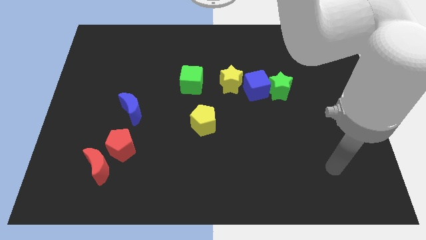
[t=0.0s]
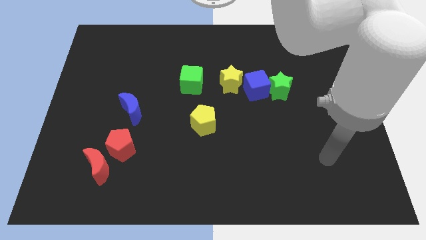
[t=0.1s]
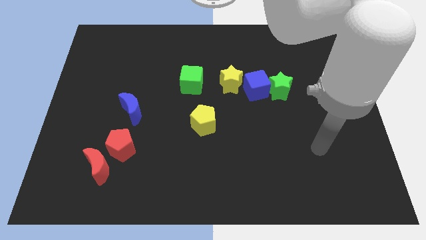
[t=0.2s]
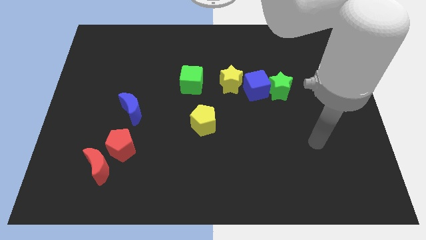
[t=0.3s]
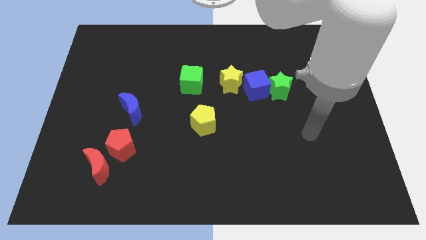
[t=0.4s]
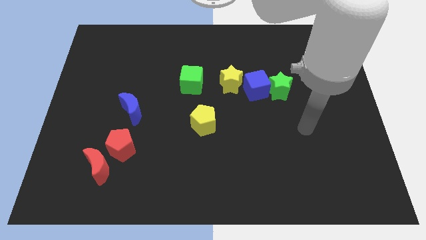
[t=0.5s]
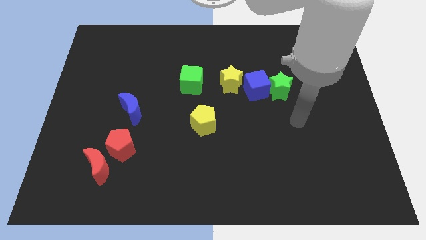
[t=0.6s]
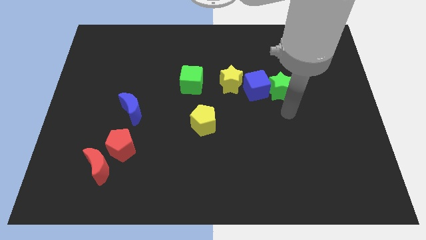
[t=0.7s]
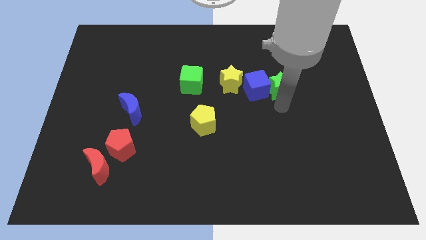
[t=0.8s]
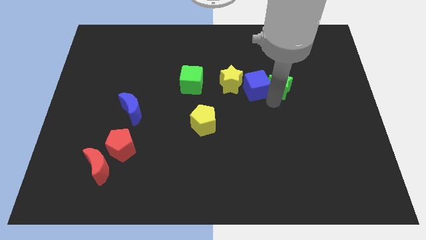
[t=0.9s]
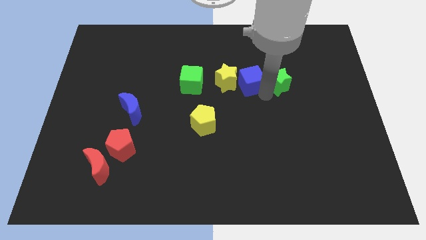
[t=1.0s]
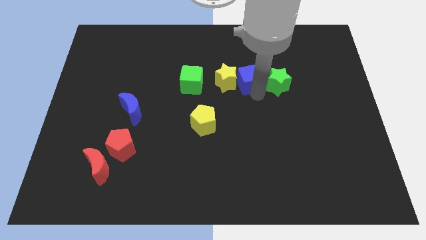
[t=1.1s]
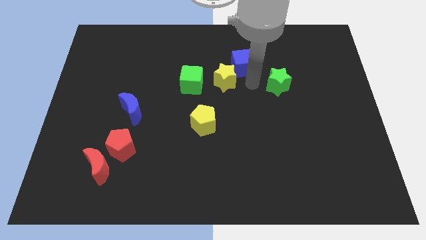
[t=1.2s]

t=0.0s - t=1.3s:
move the green star away from the blue cube

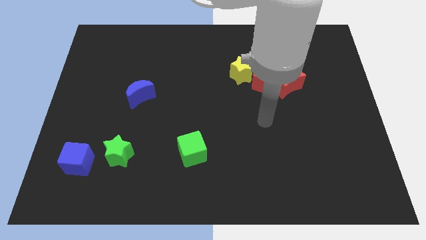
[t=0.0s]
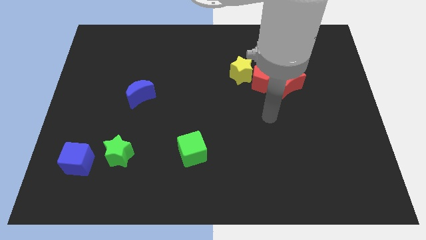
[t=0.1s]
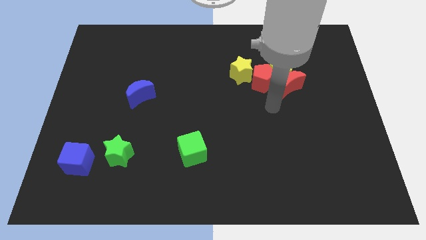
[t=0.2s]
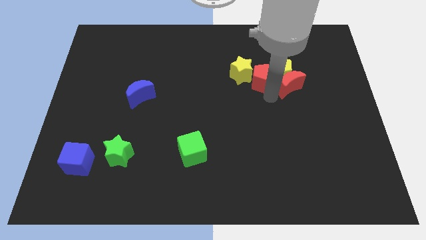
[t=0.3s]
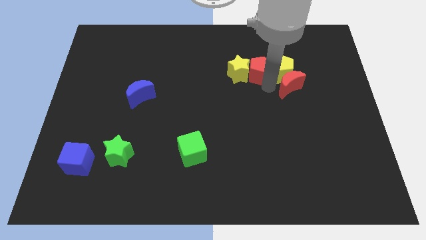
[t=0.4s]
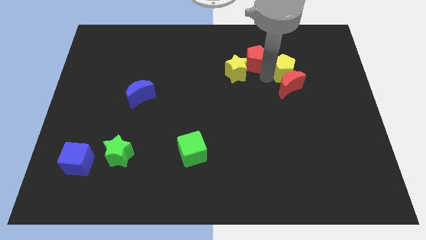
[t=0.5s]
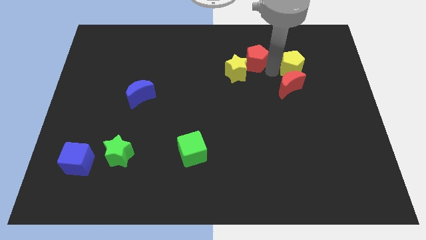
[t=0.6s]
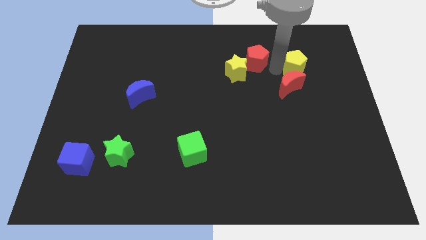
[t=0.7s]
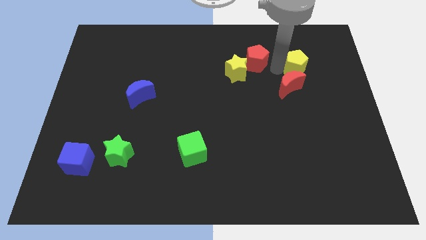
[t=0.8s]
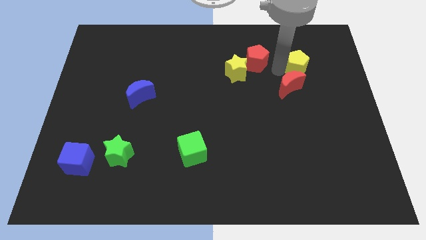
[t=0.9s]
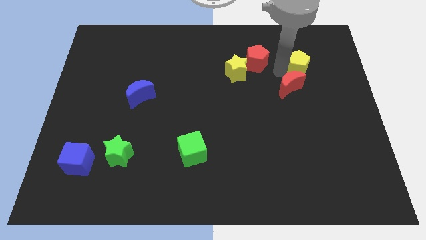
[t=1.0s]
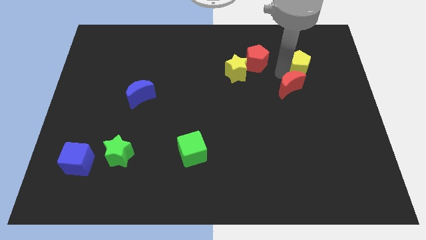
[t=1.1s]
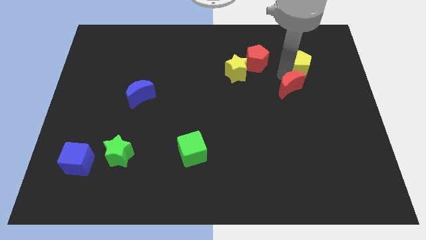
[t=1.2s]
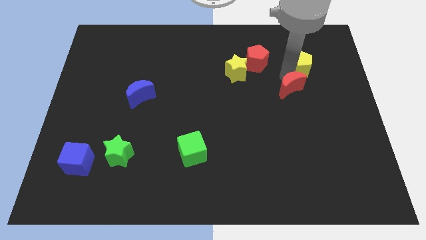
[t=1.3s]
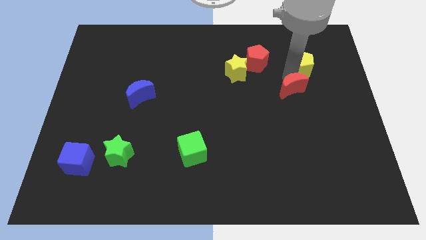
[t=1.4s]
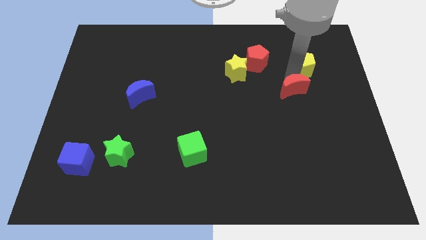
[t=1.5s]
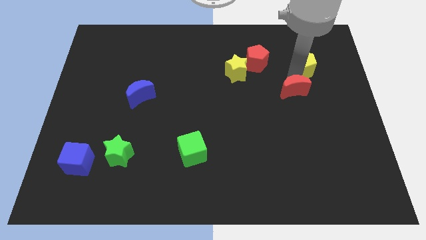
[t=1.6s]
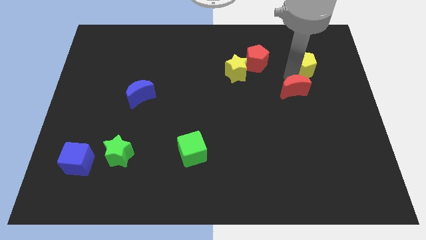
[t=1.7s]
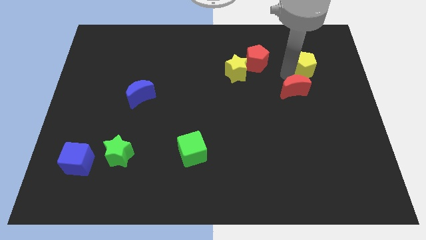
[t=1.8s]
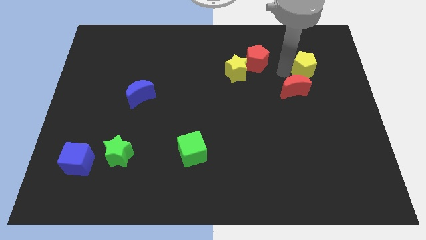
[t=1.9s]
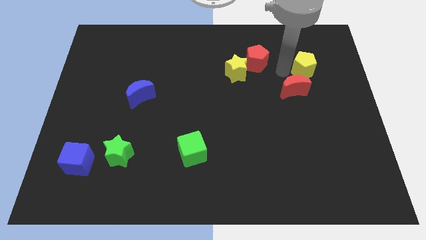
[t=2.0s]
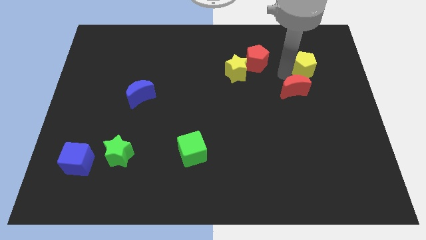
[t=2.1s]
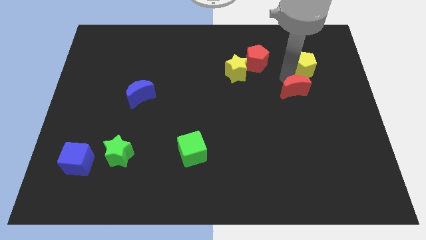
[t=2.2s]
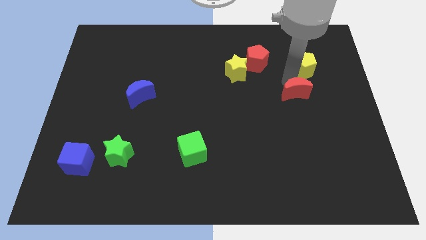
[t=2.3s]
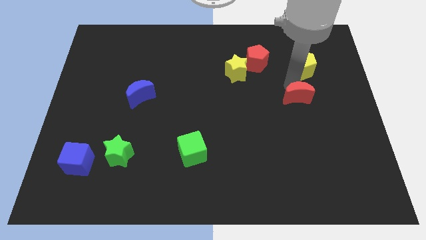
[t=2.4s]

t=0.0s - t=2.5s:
separate the red moon from the yellow pentagon and red pentagon

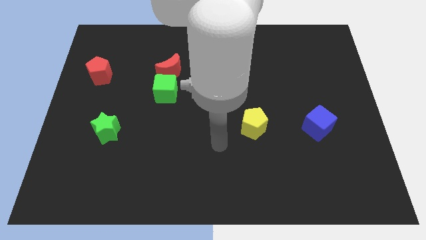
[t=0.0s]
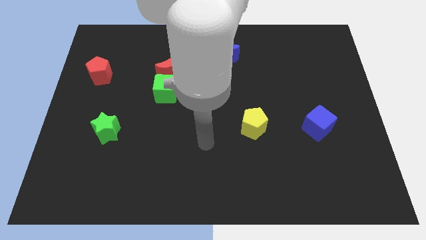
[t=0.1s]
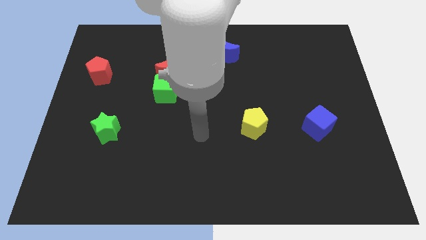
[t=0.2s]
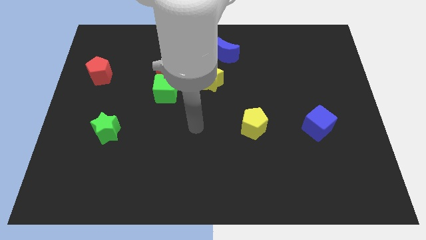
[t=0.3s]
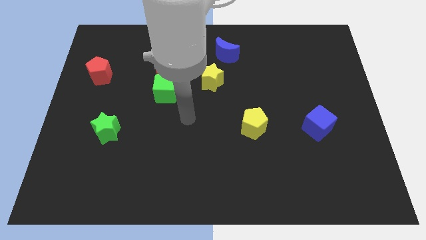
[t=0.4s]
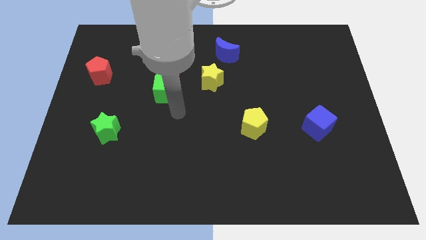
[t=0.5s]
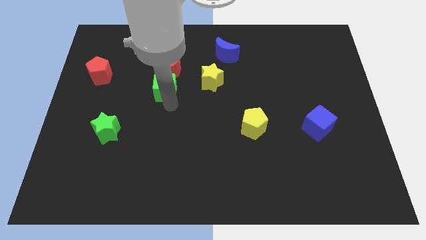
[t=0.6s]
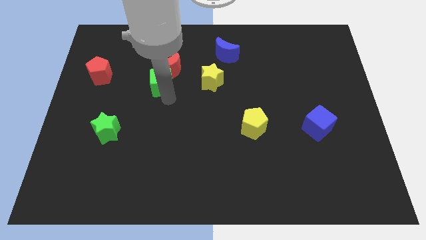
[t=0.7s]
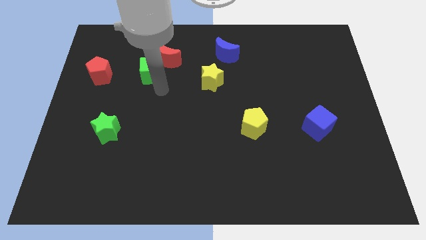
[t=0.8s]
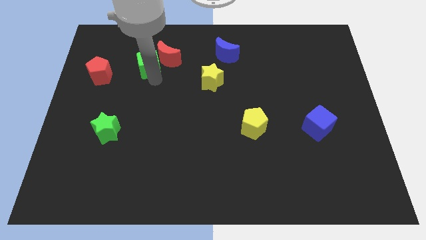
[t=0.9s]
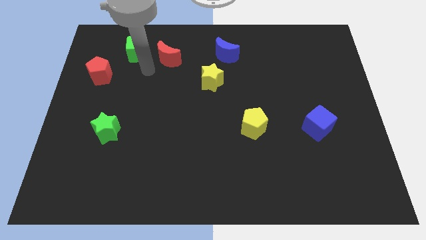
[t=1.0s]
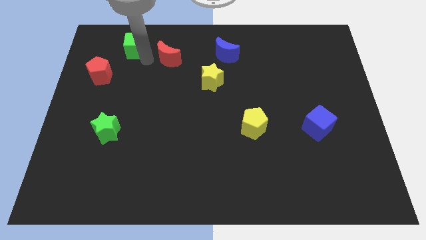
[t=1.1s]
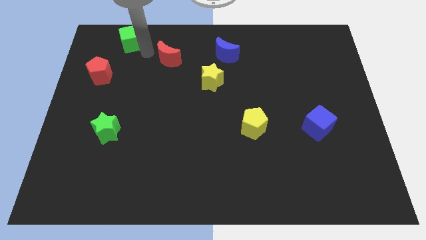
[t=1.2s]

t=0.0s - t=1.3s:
separate the red moon from the green cube

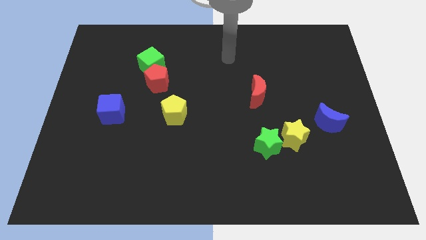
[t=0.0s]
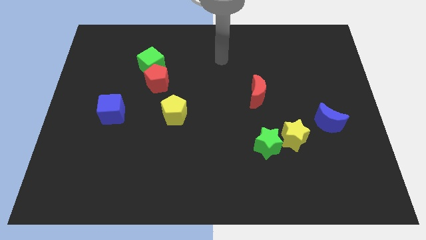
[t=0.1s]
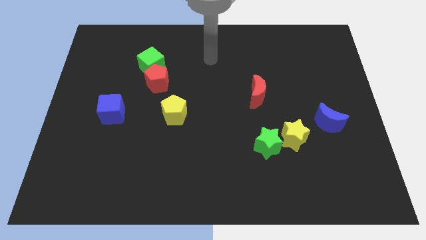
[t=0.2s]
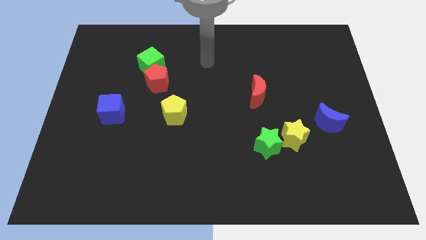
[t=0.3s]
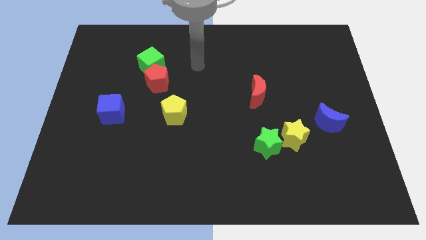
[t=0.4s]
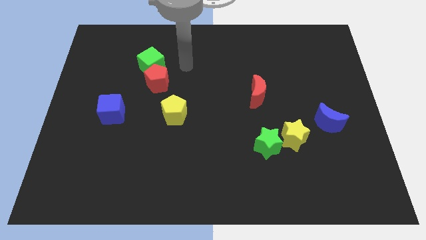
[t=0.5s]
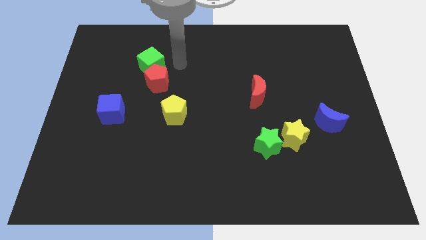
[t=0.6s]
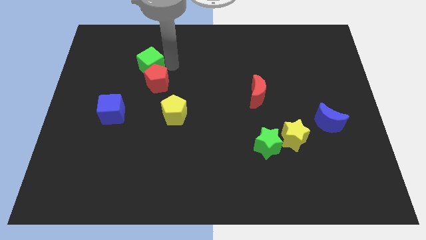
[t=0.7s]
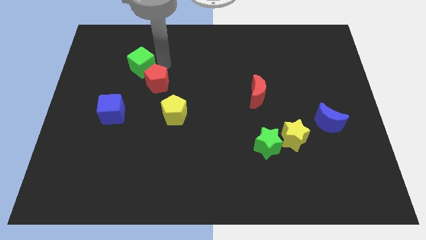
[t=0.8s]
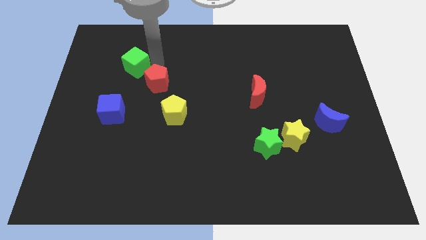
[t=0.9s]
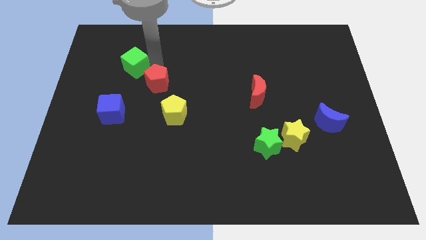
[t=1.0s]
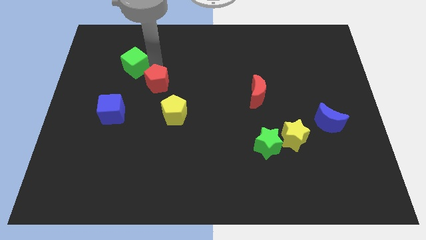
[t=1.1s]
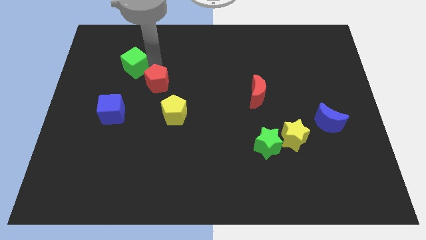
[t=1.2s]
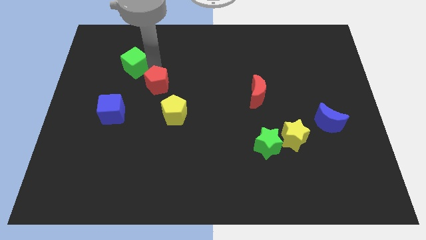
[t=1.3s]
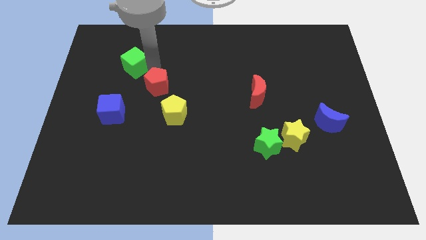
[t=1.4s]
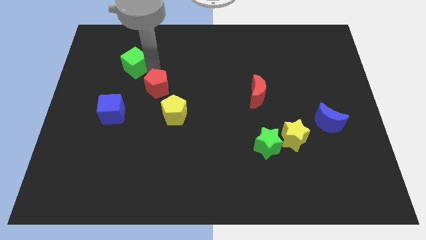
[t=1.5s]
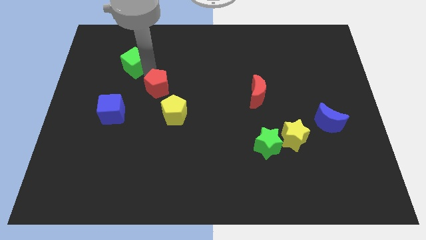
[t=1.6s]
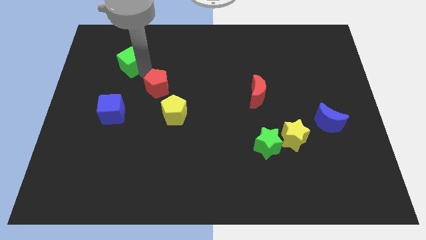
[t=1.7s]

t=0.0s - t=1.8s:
separate the red pentagon from the green cube

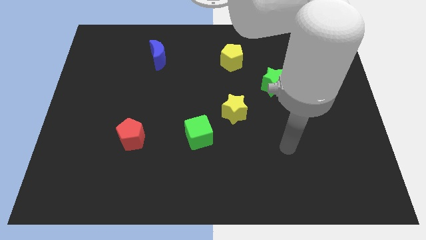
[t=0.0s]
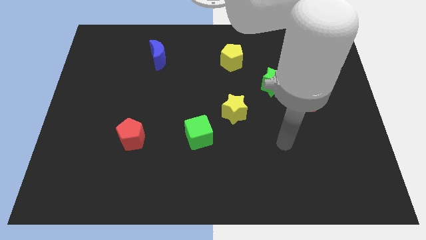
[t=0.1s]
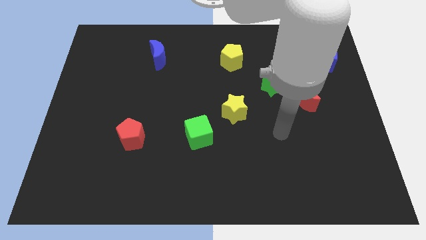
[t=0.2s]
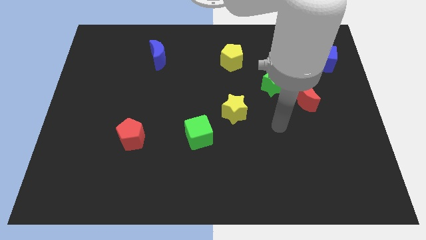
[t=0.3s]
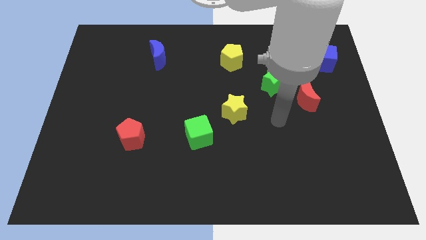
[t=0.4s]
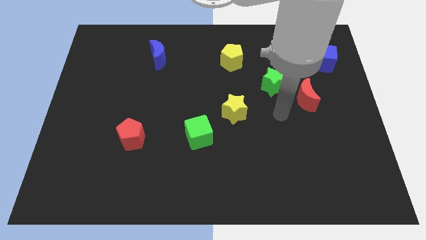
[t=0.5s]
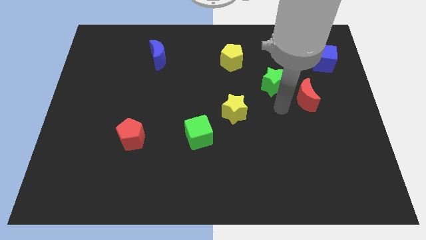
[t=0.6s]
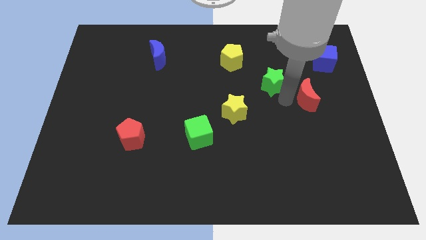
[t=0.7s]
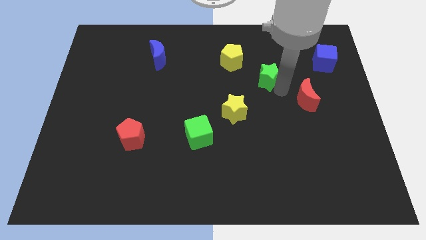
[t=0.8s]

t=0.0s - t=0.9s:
pull the red moon apart from the green star

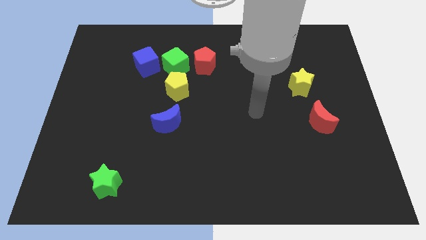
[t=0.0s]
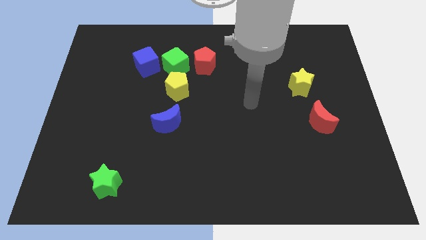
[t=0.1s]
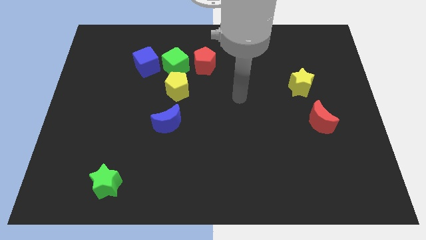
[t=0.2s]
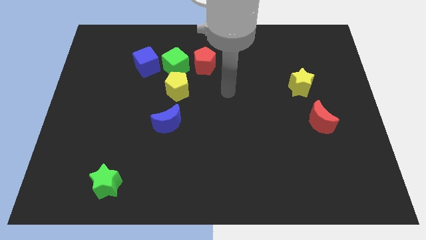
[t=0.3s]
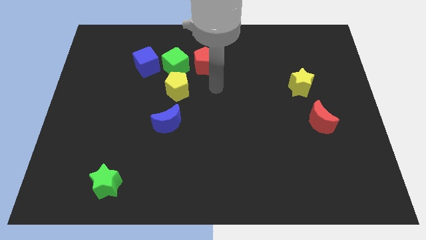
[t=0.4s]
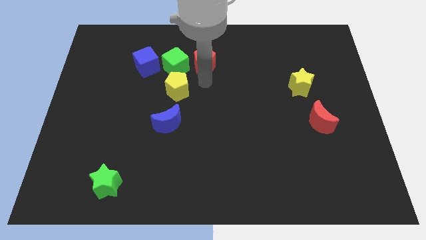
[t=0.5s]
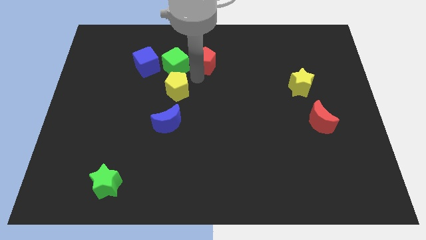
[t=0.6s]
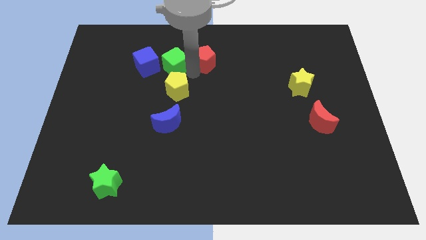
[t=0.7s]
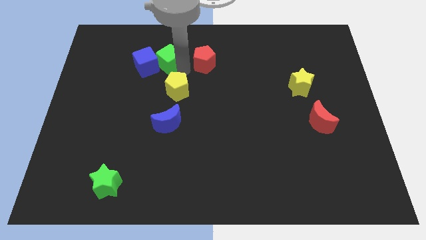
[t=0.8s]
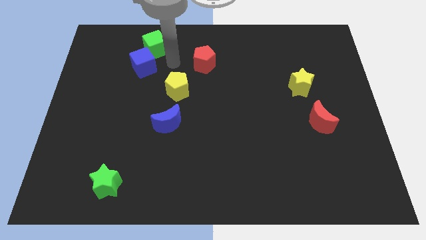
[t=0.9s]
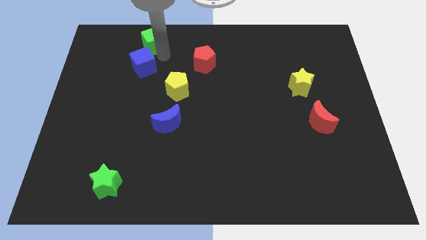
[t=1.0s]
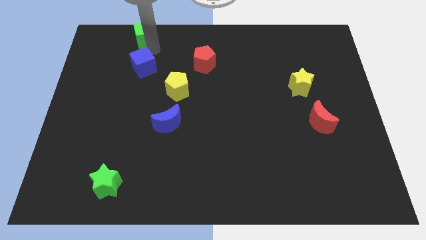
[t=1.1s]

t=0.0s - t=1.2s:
separate the blue cube from the green cube
